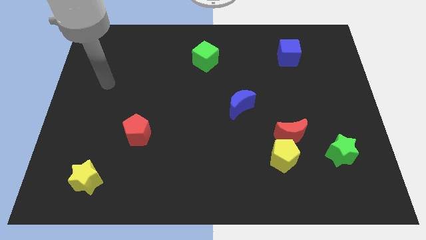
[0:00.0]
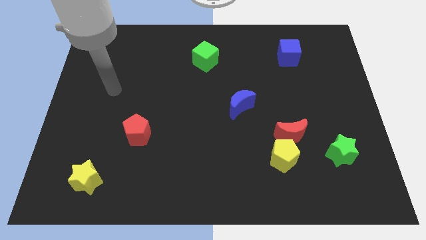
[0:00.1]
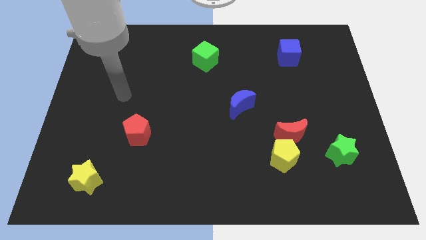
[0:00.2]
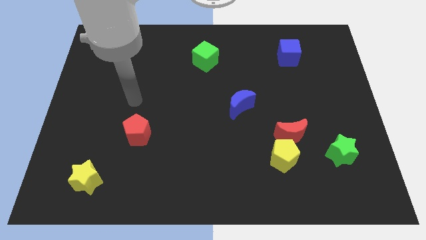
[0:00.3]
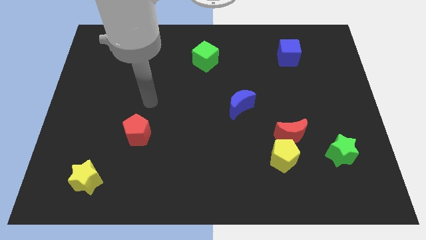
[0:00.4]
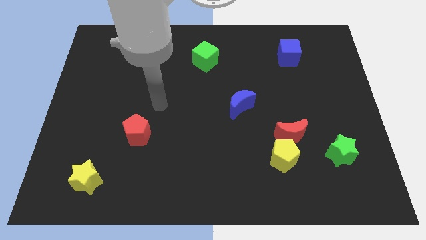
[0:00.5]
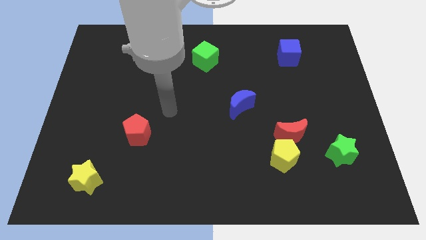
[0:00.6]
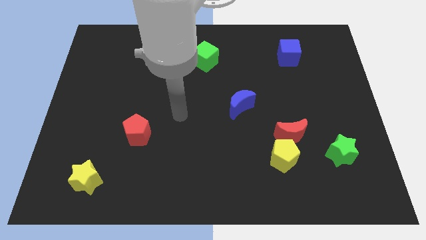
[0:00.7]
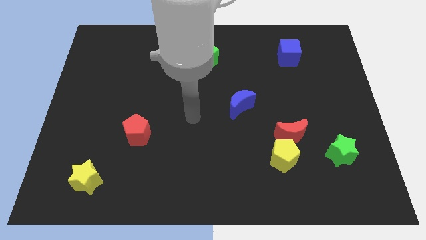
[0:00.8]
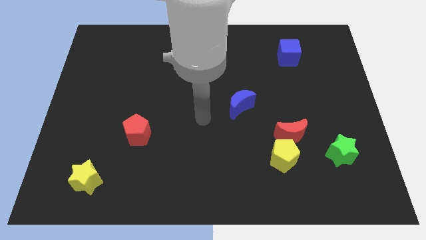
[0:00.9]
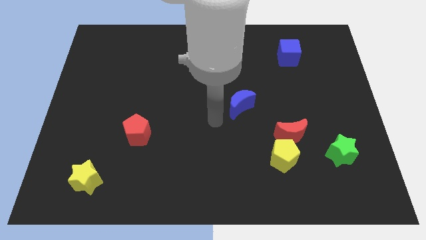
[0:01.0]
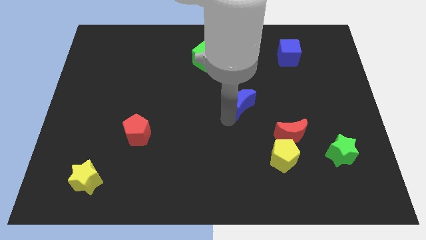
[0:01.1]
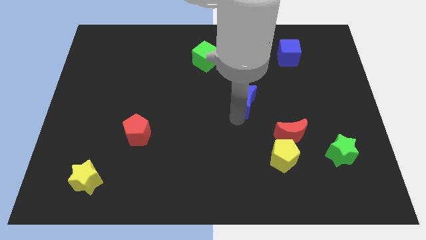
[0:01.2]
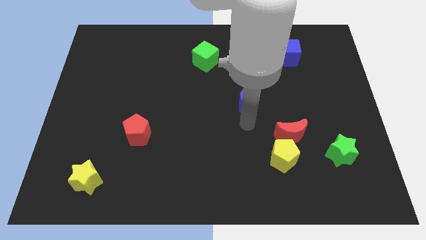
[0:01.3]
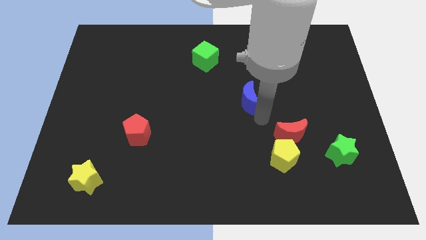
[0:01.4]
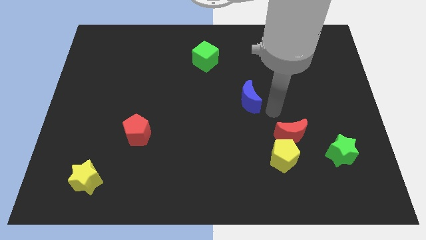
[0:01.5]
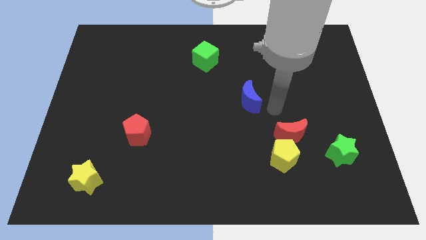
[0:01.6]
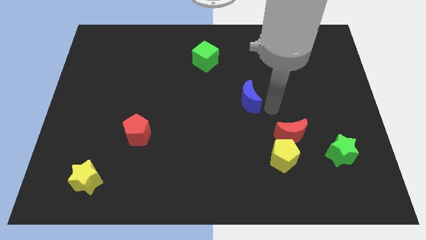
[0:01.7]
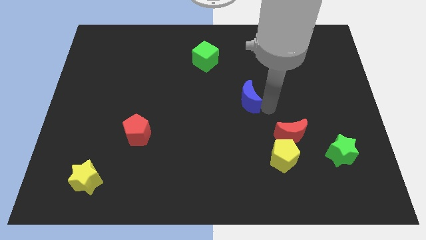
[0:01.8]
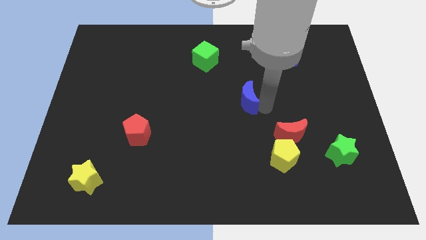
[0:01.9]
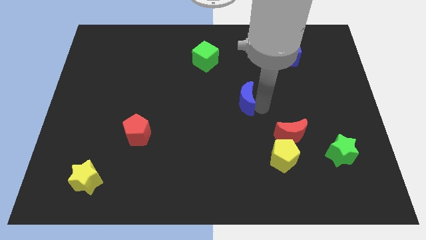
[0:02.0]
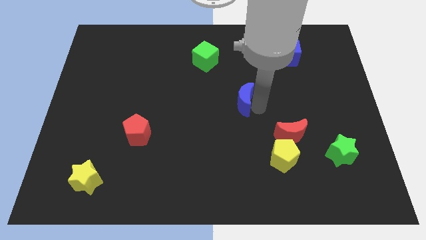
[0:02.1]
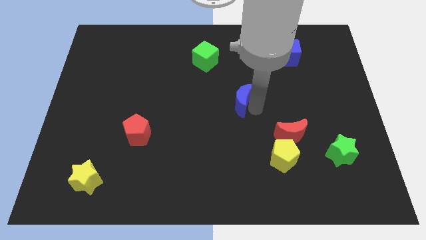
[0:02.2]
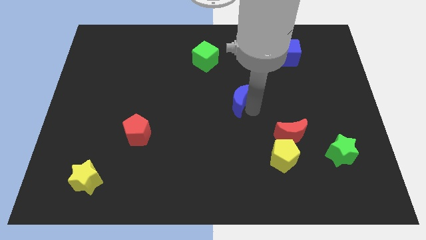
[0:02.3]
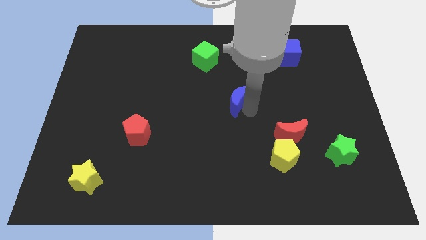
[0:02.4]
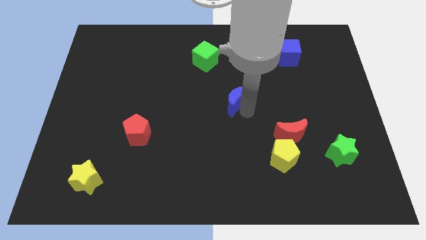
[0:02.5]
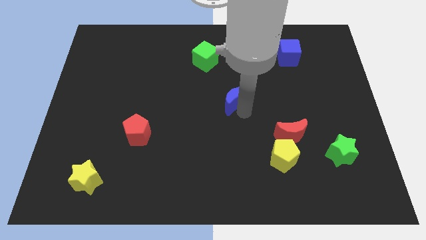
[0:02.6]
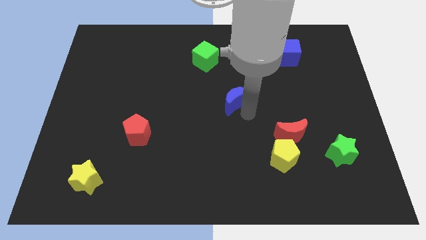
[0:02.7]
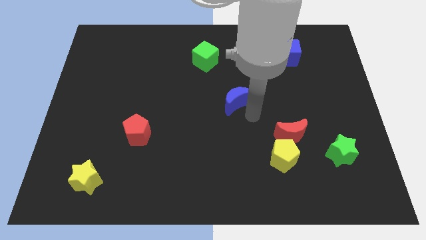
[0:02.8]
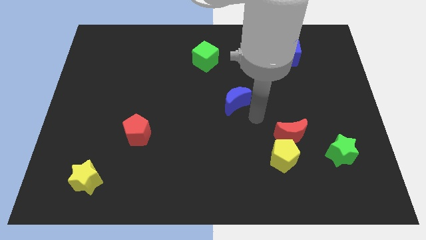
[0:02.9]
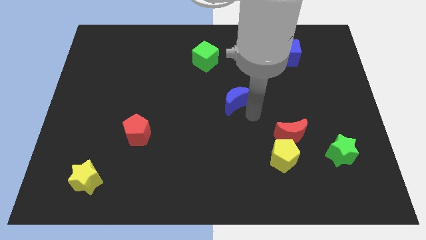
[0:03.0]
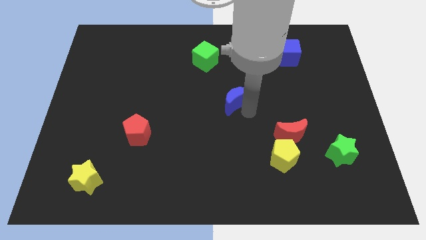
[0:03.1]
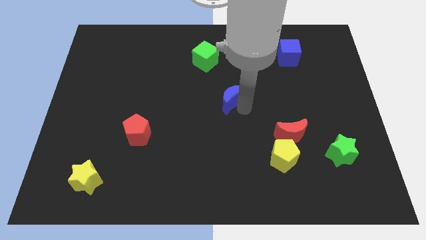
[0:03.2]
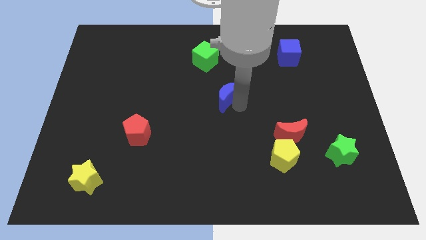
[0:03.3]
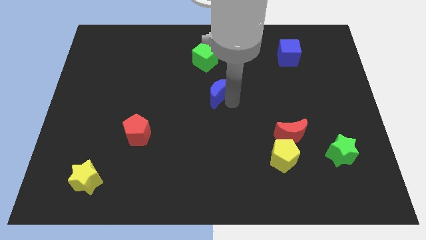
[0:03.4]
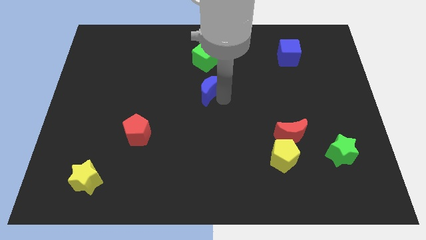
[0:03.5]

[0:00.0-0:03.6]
push the blue moon a bit upwards and then to the left

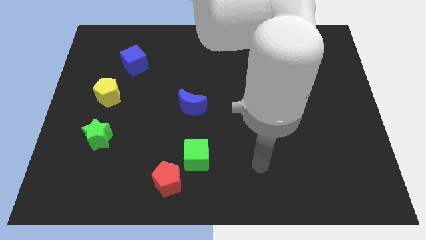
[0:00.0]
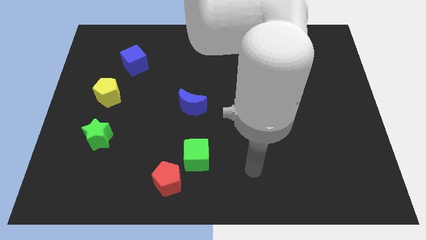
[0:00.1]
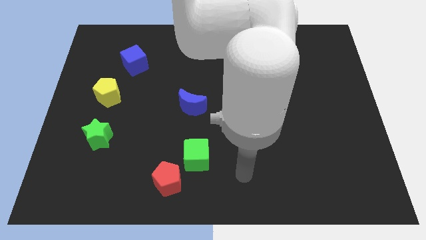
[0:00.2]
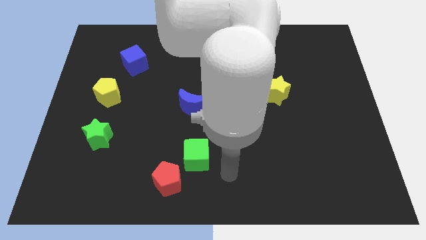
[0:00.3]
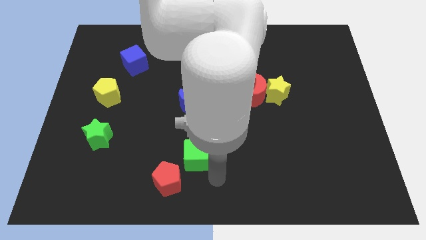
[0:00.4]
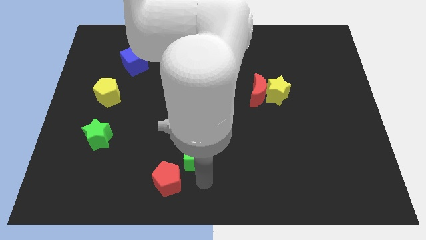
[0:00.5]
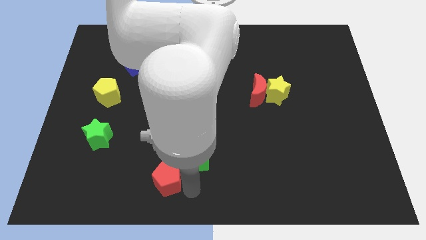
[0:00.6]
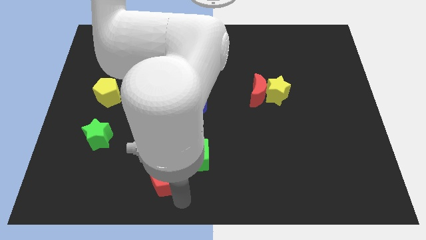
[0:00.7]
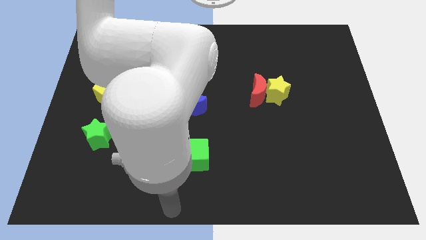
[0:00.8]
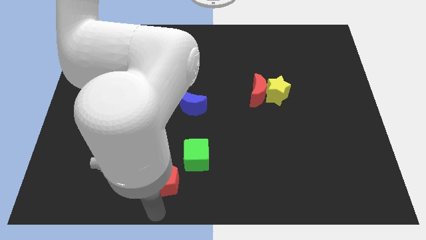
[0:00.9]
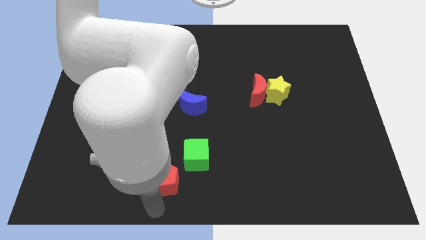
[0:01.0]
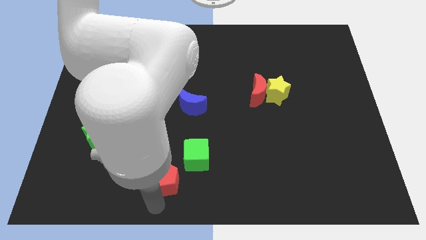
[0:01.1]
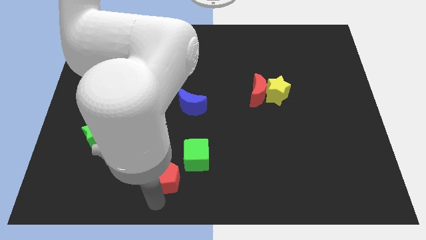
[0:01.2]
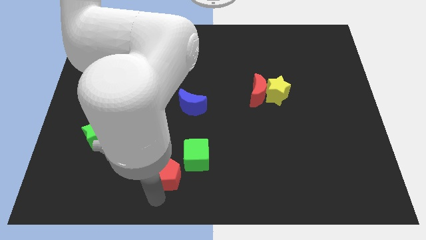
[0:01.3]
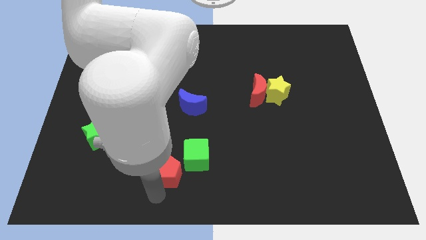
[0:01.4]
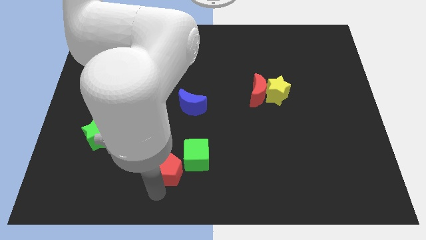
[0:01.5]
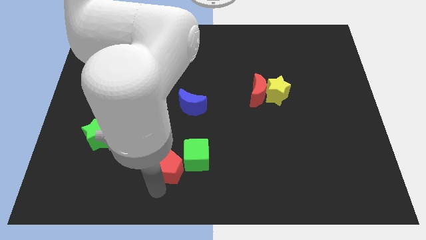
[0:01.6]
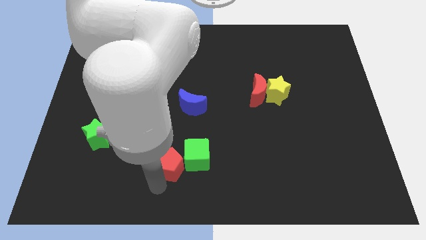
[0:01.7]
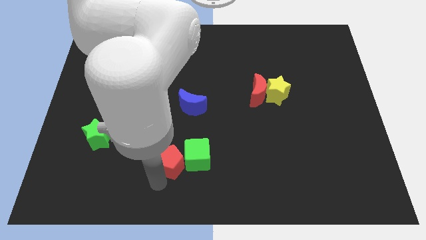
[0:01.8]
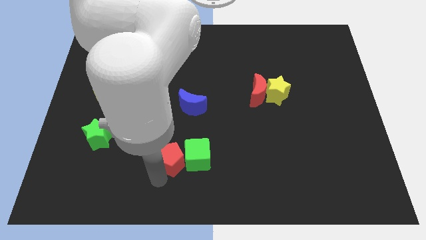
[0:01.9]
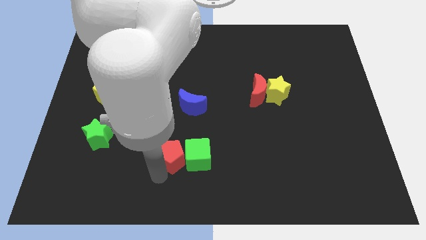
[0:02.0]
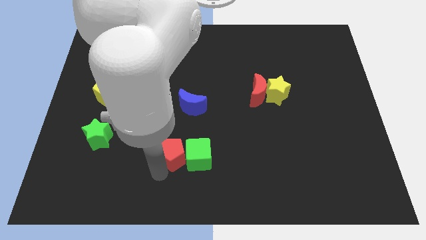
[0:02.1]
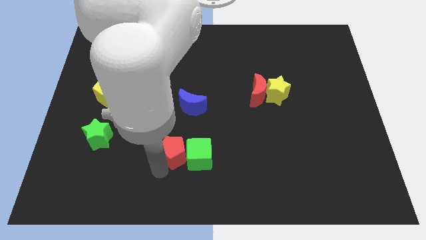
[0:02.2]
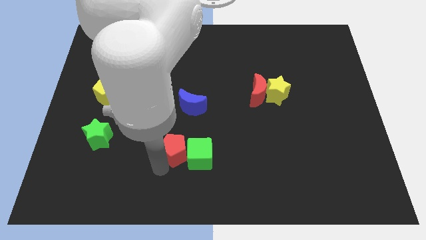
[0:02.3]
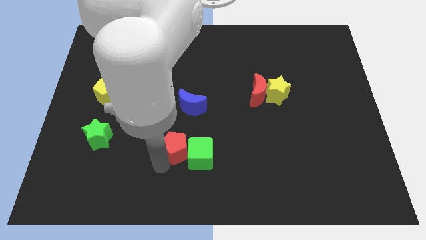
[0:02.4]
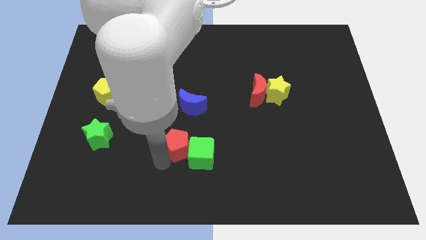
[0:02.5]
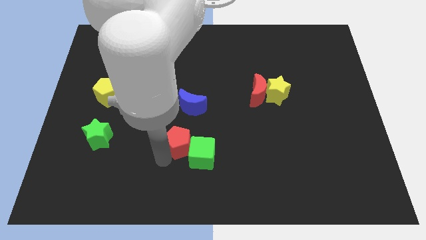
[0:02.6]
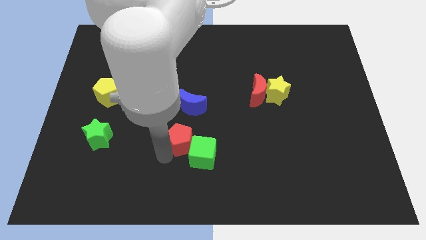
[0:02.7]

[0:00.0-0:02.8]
slide the red pentagon a little bit up and to the right diagonally

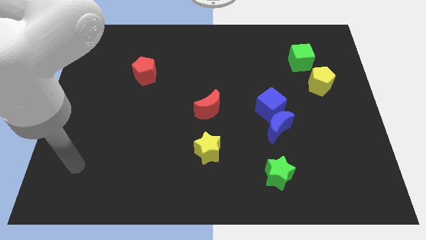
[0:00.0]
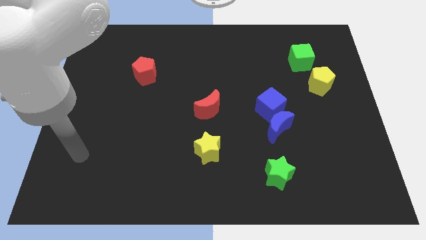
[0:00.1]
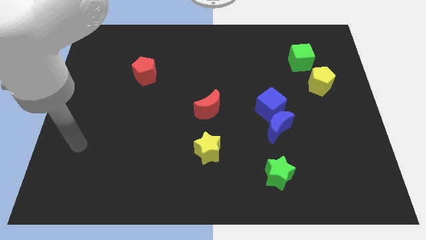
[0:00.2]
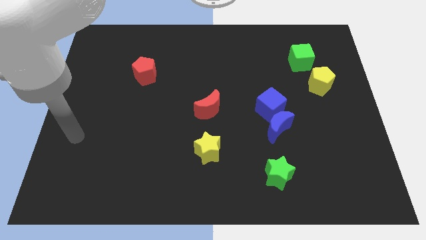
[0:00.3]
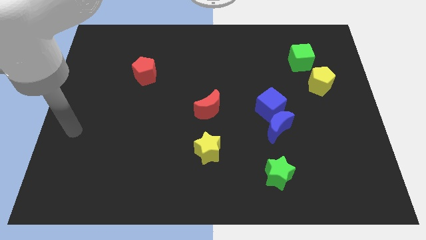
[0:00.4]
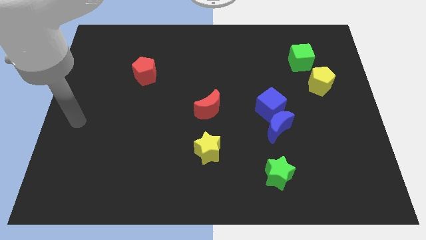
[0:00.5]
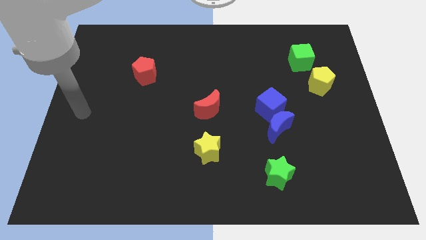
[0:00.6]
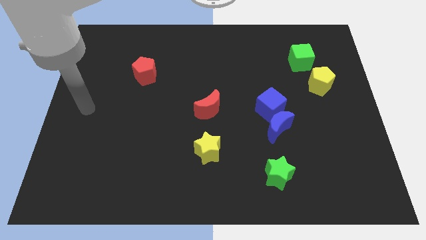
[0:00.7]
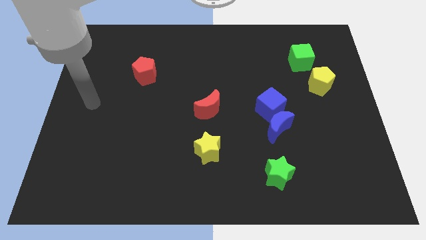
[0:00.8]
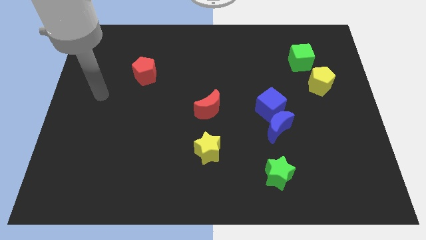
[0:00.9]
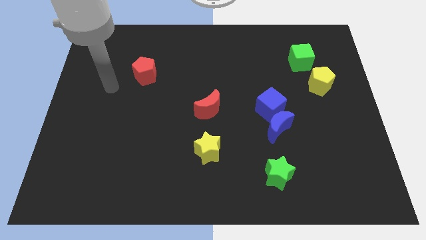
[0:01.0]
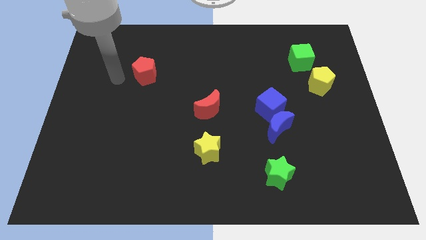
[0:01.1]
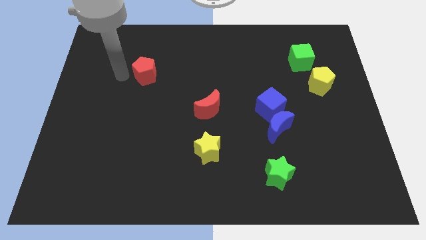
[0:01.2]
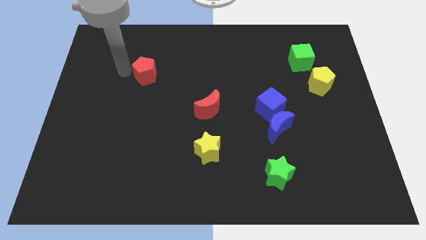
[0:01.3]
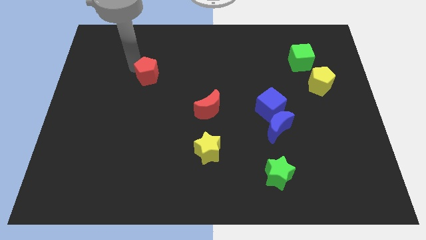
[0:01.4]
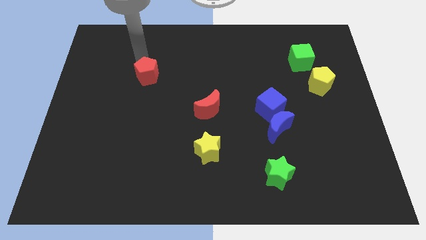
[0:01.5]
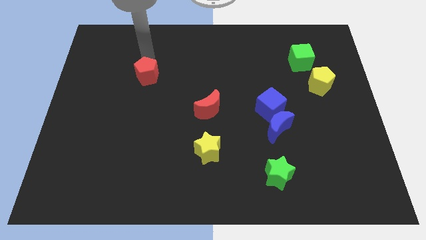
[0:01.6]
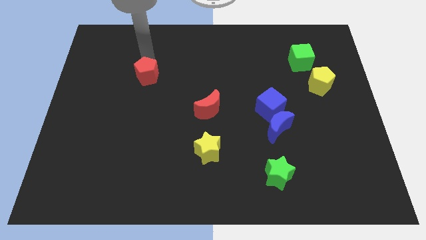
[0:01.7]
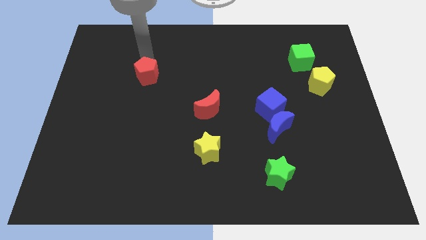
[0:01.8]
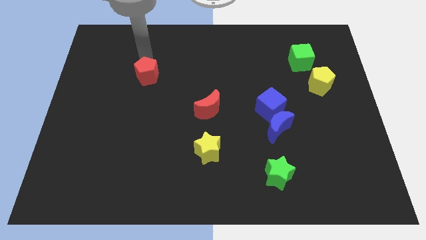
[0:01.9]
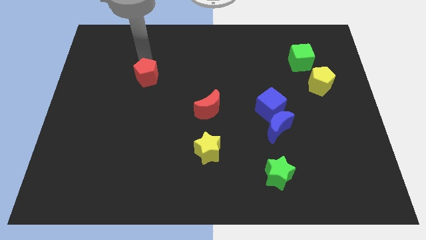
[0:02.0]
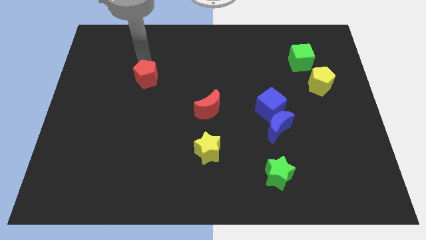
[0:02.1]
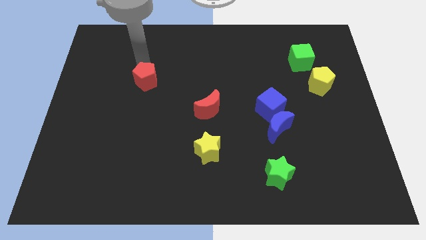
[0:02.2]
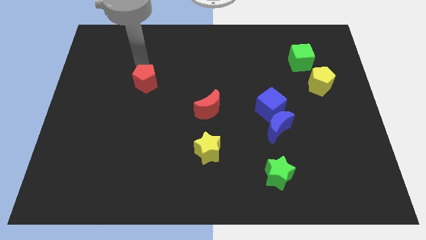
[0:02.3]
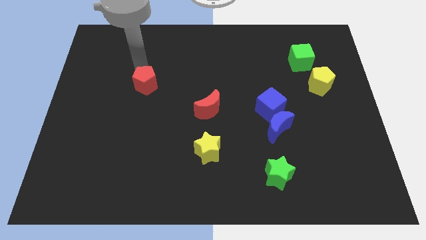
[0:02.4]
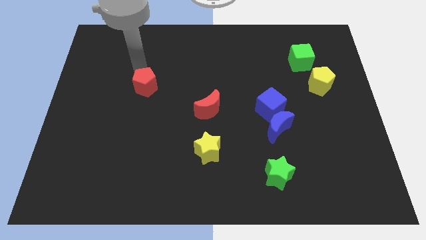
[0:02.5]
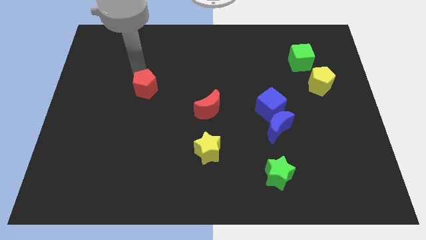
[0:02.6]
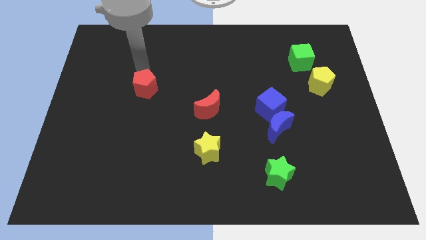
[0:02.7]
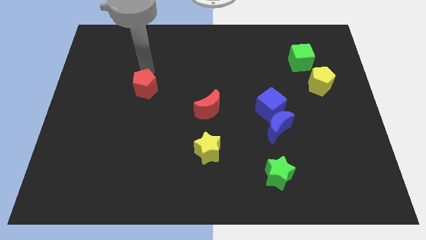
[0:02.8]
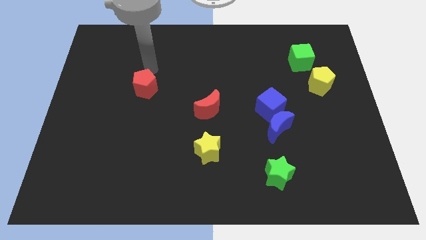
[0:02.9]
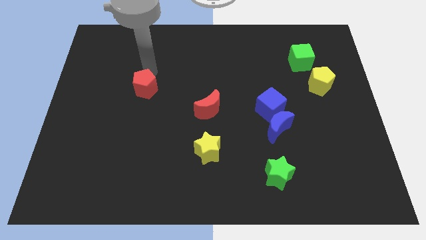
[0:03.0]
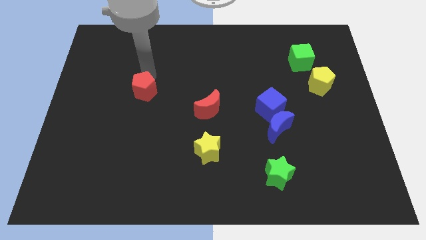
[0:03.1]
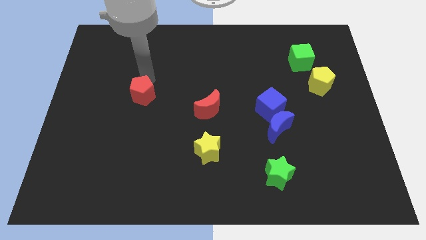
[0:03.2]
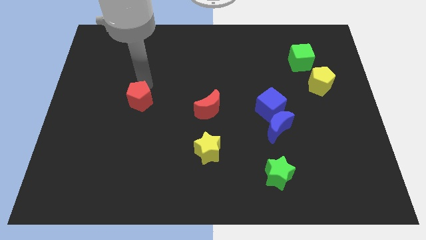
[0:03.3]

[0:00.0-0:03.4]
move the red pentagon a bit downwards
